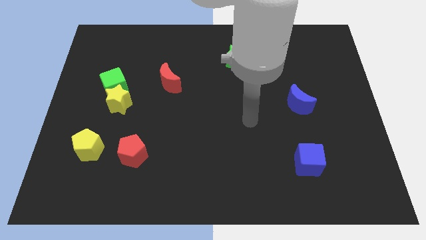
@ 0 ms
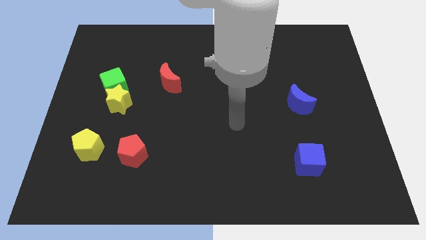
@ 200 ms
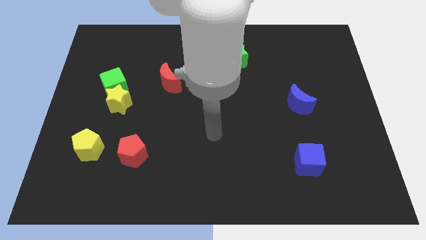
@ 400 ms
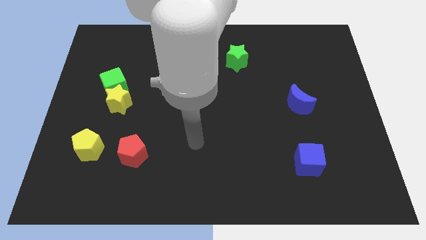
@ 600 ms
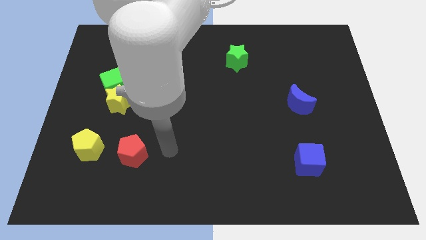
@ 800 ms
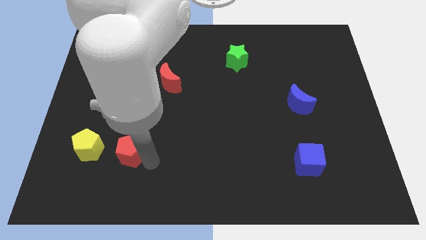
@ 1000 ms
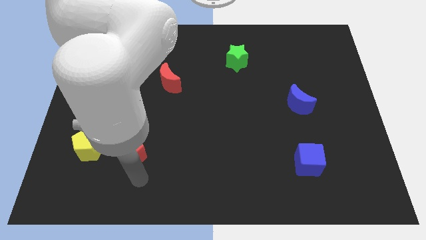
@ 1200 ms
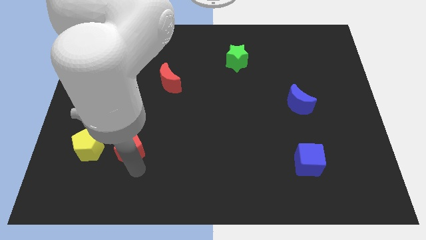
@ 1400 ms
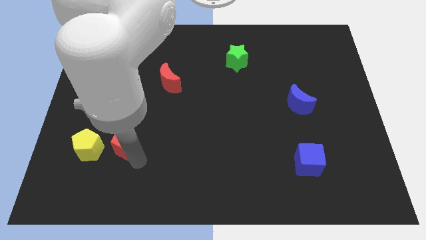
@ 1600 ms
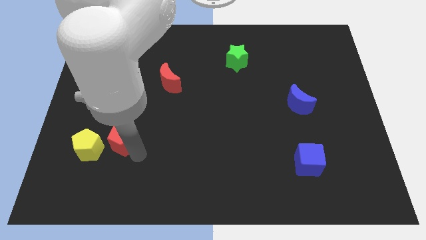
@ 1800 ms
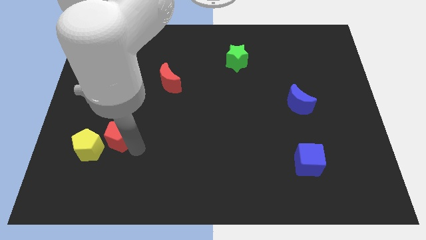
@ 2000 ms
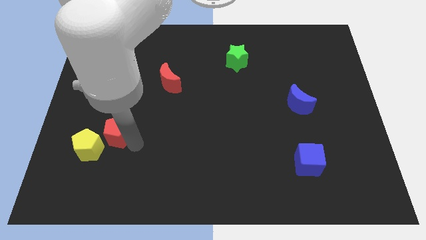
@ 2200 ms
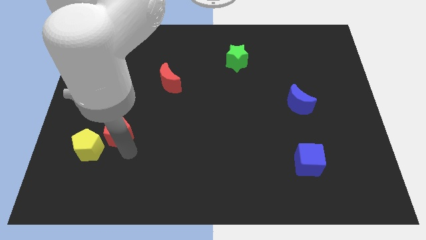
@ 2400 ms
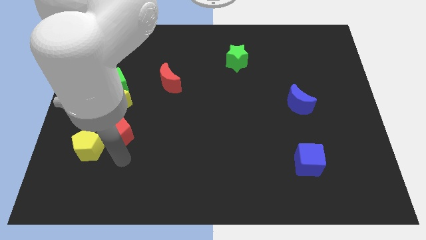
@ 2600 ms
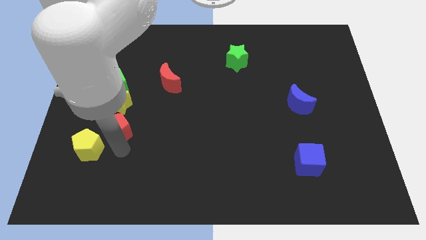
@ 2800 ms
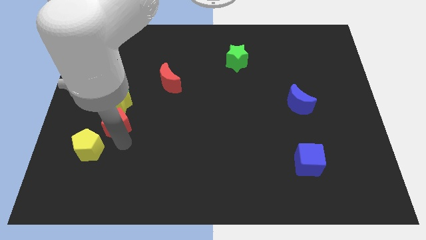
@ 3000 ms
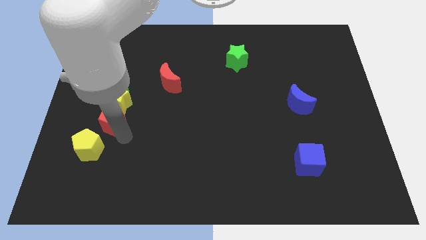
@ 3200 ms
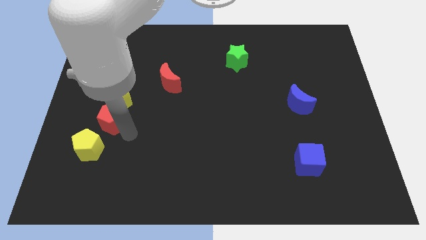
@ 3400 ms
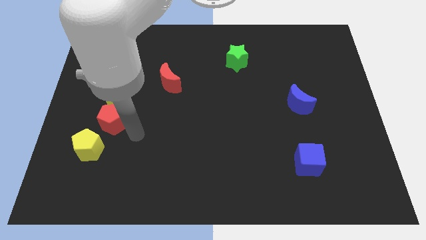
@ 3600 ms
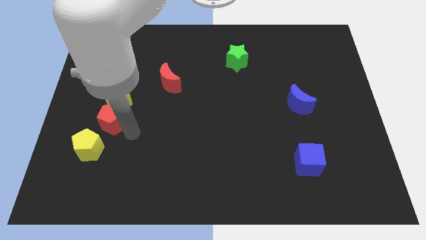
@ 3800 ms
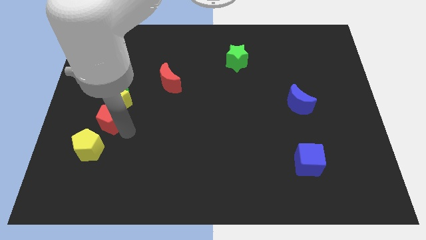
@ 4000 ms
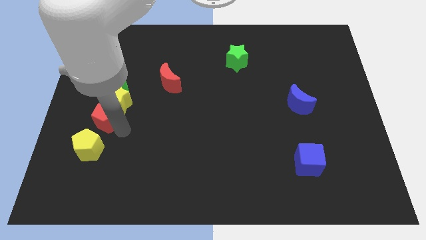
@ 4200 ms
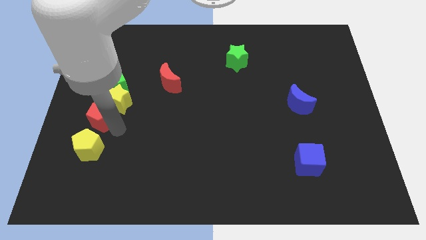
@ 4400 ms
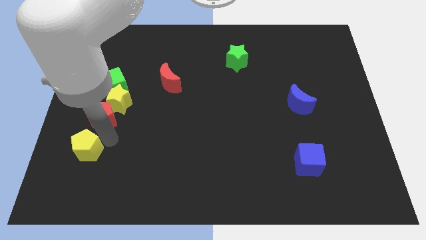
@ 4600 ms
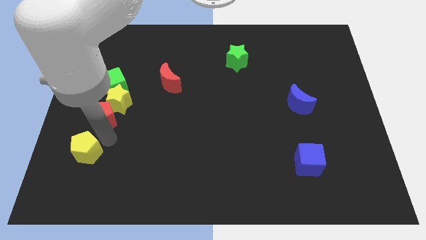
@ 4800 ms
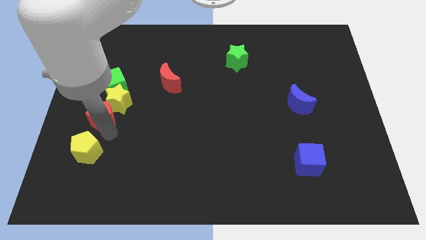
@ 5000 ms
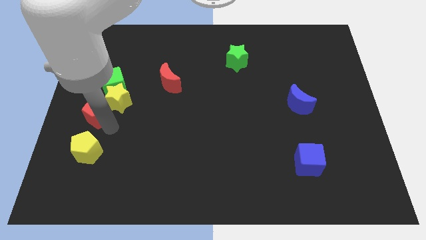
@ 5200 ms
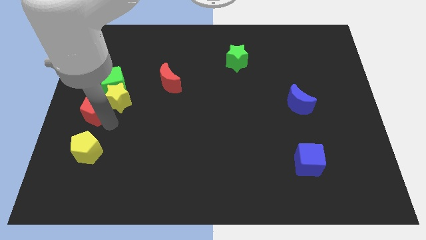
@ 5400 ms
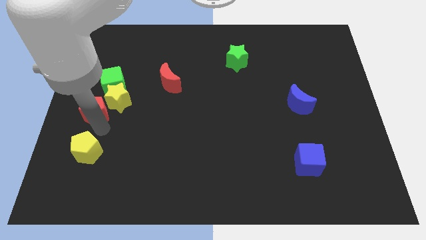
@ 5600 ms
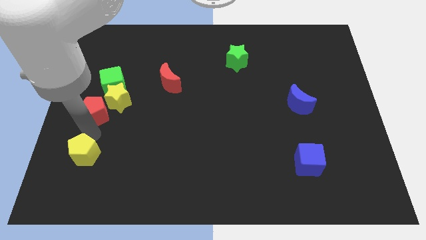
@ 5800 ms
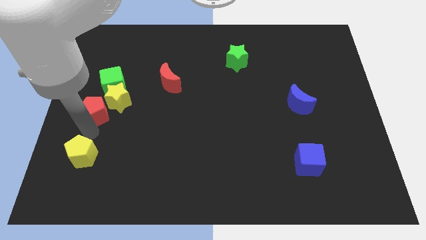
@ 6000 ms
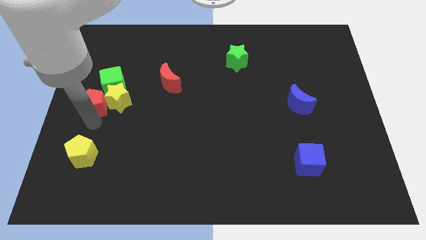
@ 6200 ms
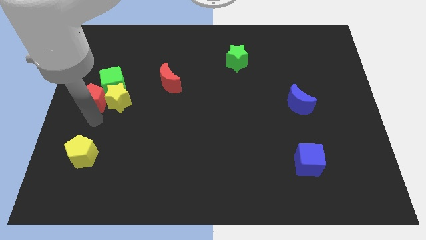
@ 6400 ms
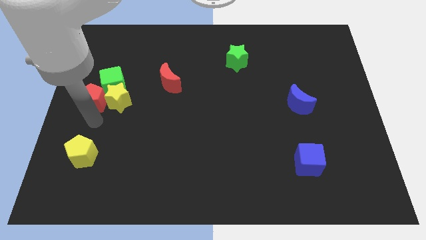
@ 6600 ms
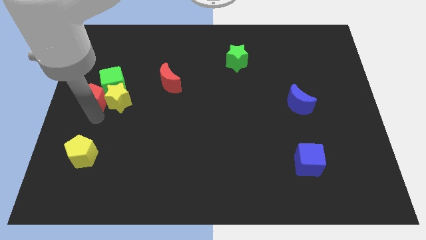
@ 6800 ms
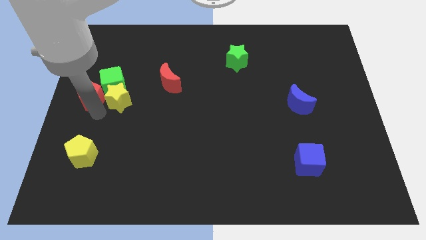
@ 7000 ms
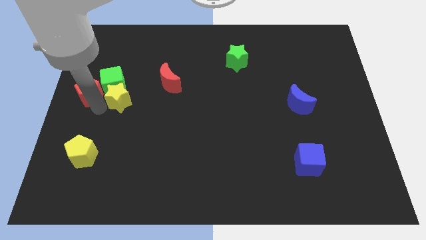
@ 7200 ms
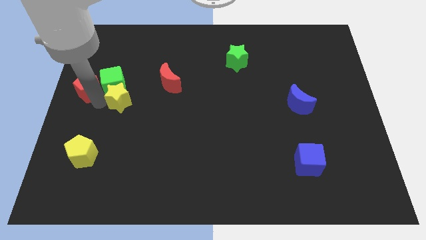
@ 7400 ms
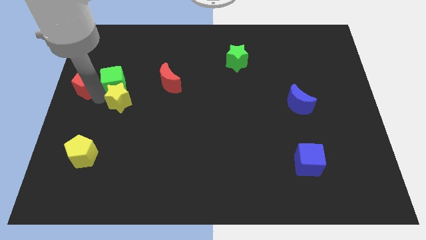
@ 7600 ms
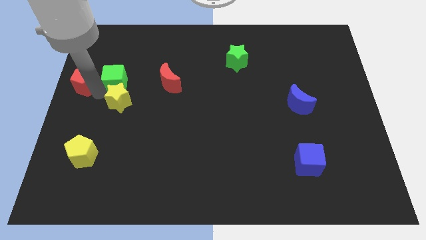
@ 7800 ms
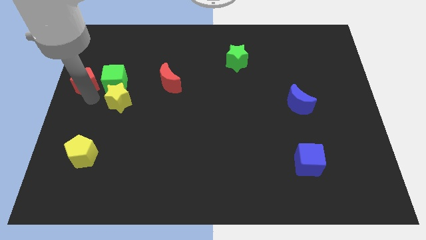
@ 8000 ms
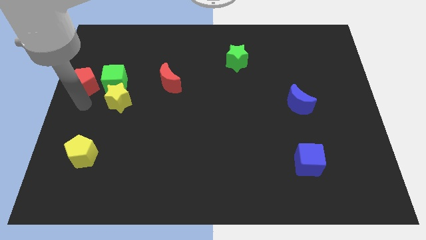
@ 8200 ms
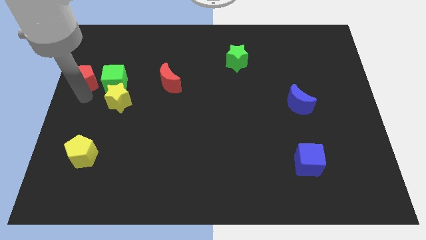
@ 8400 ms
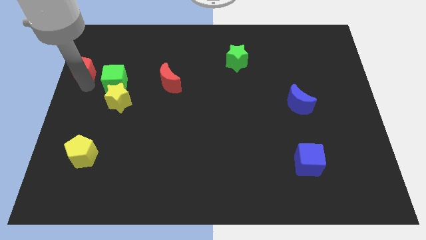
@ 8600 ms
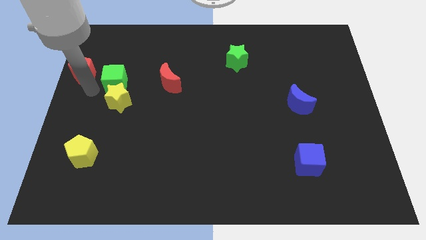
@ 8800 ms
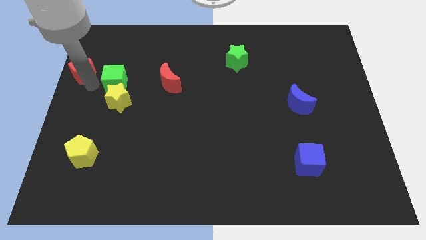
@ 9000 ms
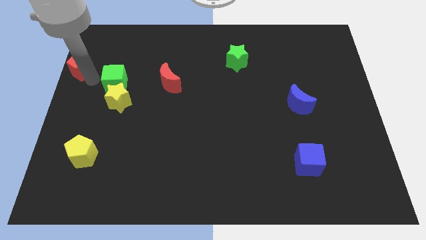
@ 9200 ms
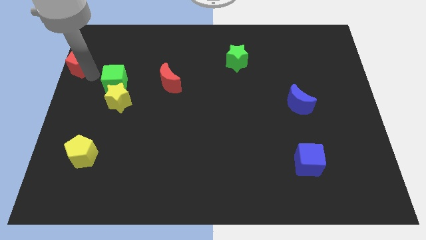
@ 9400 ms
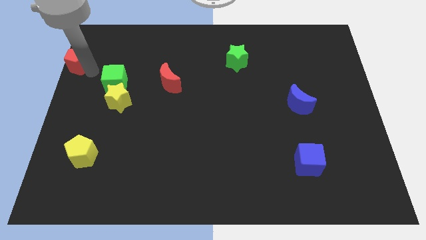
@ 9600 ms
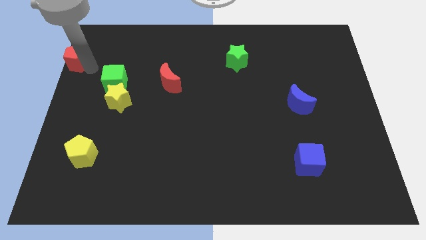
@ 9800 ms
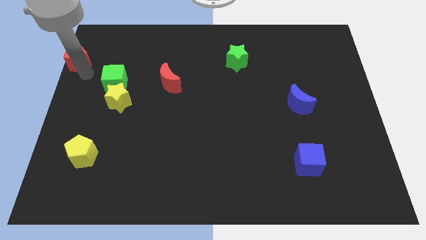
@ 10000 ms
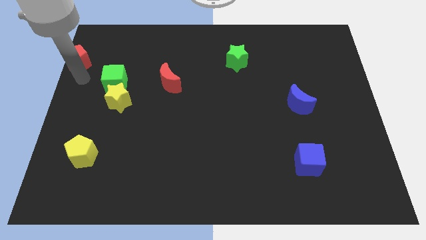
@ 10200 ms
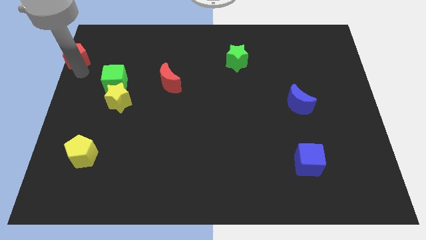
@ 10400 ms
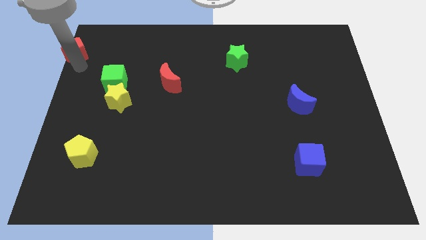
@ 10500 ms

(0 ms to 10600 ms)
slide the red pentagon to the top left of the board

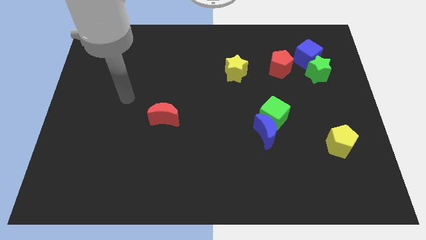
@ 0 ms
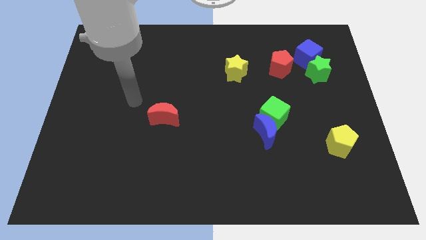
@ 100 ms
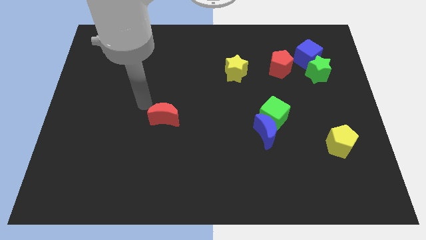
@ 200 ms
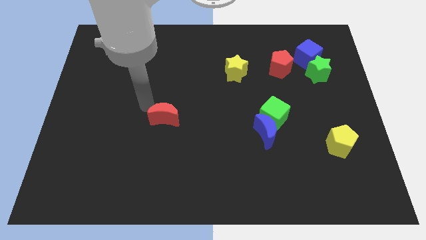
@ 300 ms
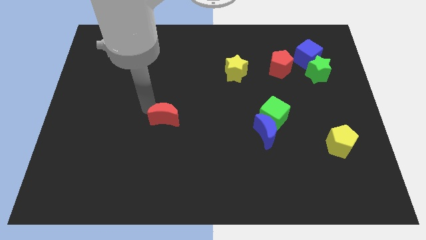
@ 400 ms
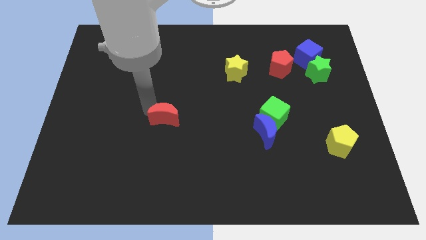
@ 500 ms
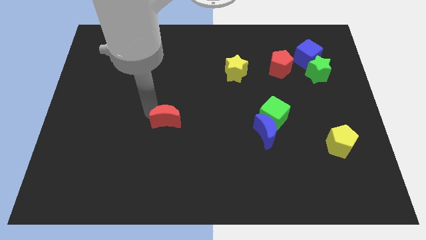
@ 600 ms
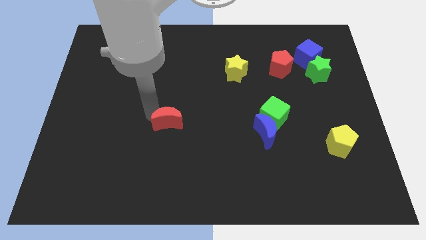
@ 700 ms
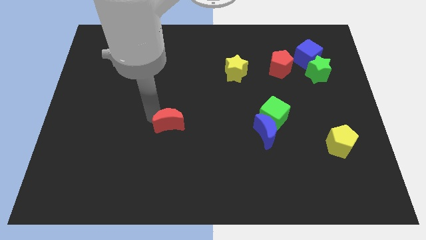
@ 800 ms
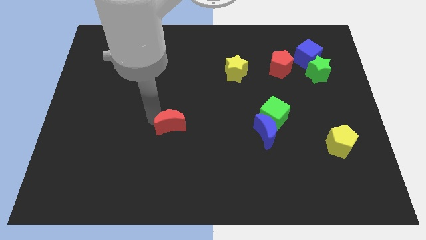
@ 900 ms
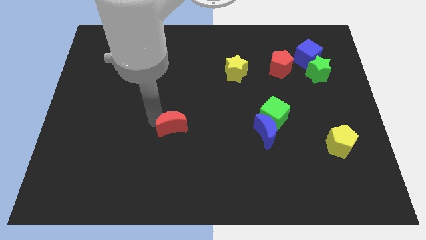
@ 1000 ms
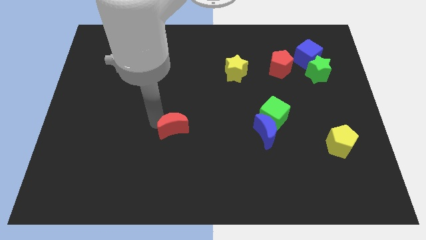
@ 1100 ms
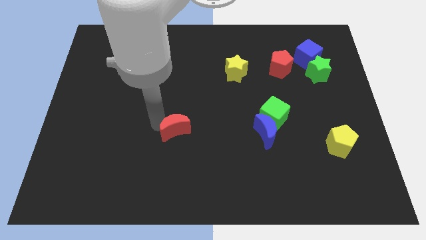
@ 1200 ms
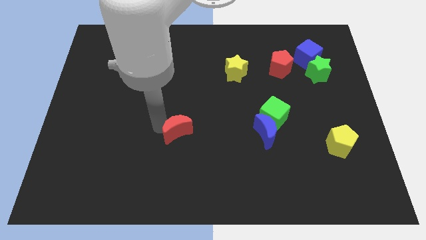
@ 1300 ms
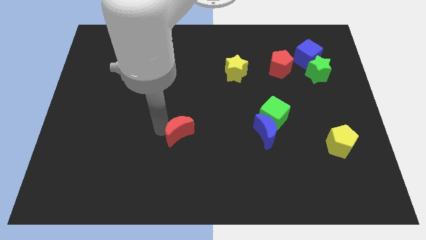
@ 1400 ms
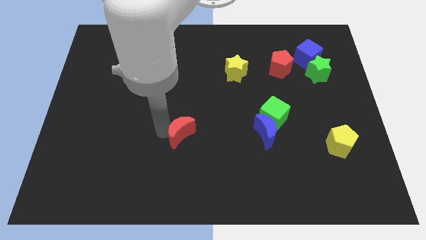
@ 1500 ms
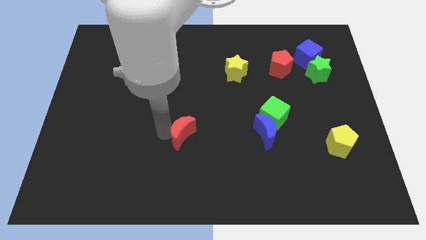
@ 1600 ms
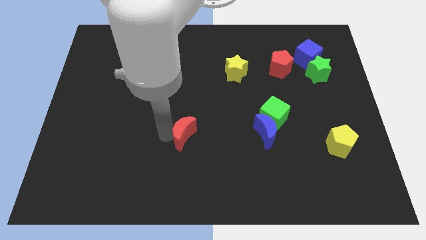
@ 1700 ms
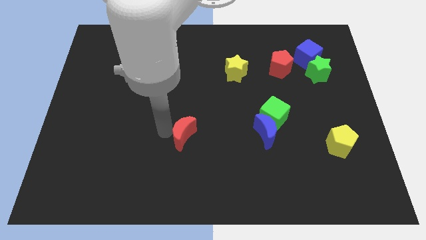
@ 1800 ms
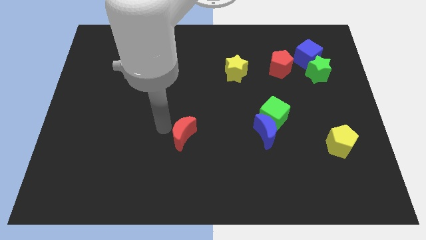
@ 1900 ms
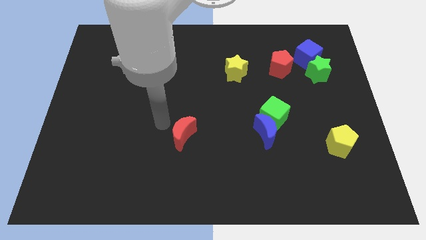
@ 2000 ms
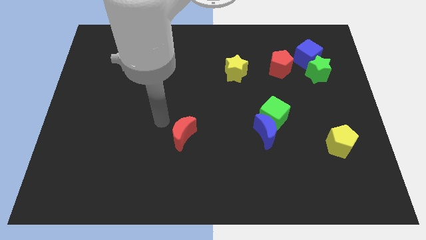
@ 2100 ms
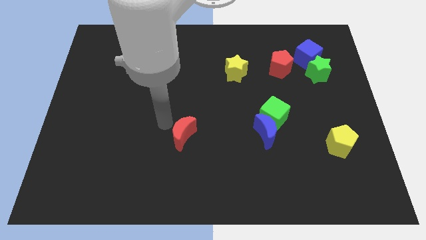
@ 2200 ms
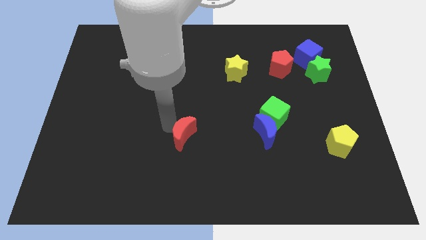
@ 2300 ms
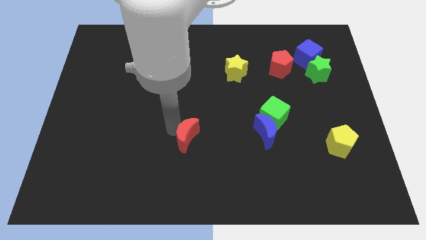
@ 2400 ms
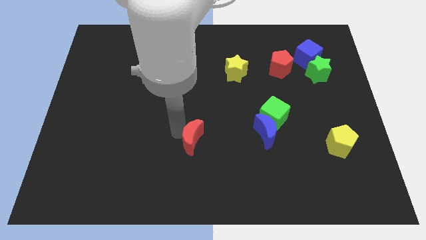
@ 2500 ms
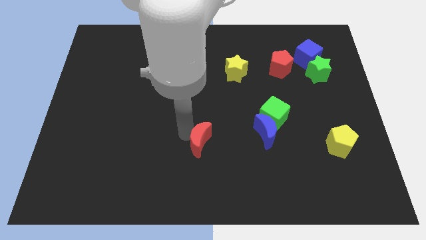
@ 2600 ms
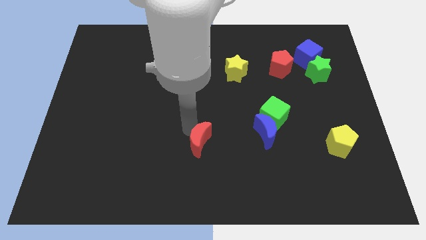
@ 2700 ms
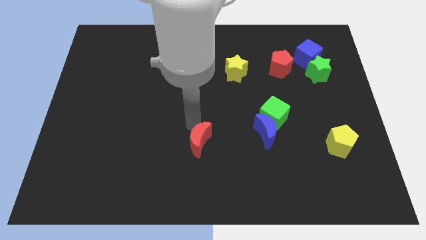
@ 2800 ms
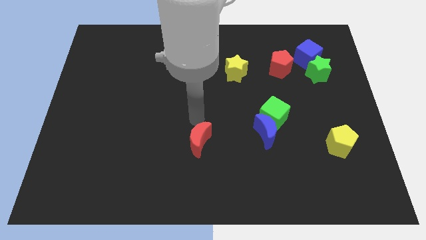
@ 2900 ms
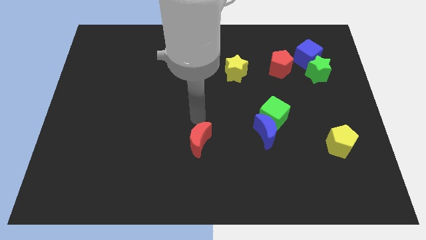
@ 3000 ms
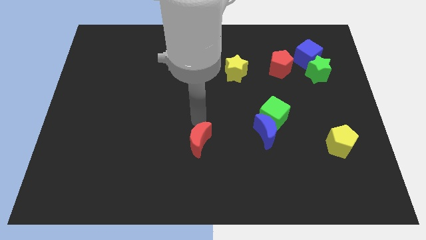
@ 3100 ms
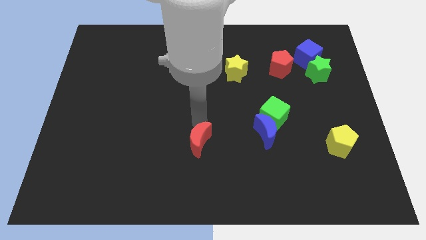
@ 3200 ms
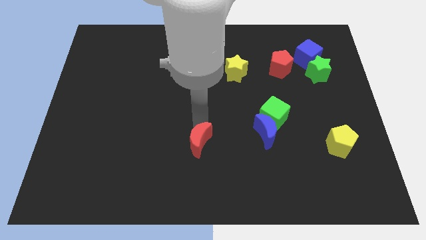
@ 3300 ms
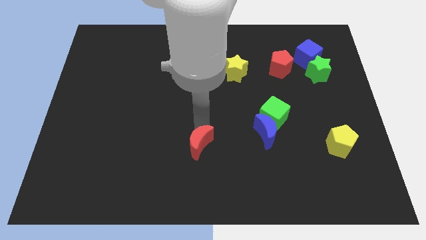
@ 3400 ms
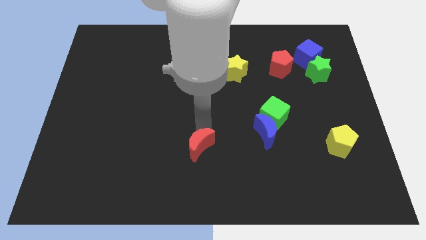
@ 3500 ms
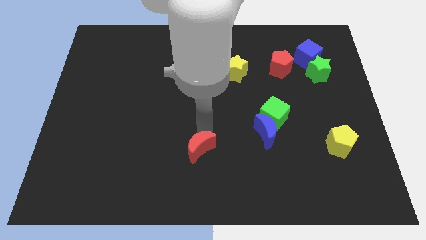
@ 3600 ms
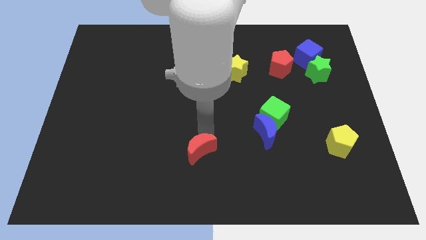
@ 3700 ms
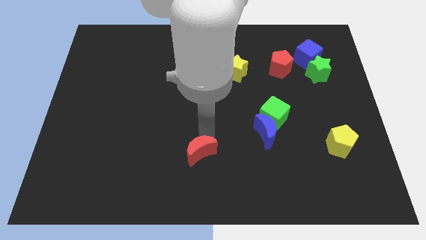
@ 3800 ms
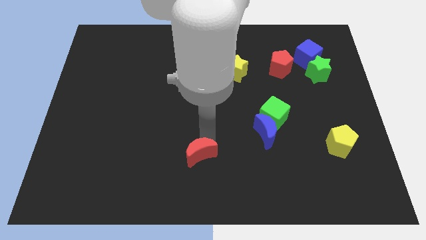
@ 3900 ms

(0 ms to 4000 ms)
put the red moon to the bottom
